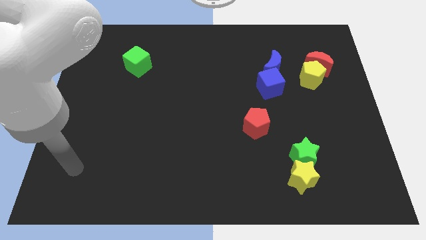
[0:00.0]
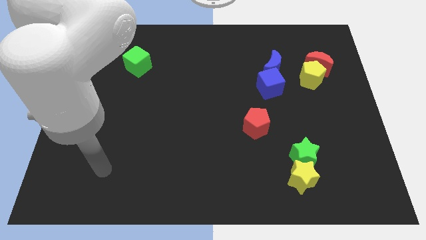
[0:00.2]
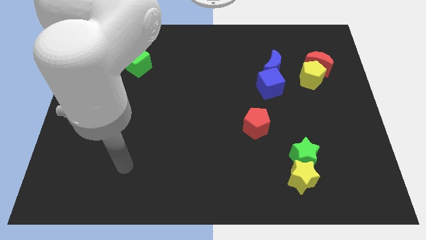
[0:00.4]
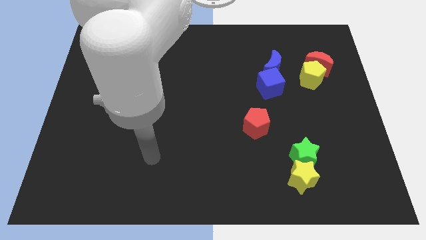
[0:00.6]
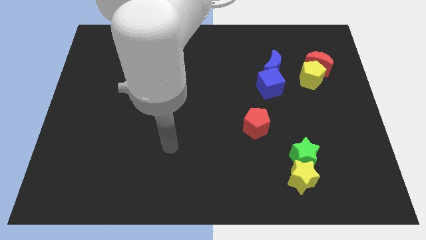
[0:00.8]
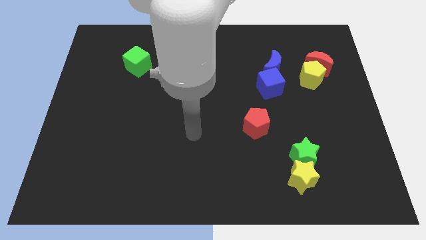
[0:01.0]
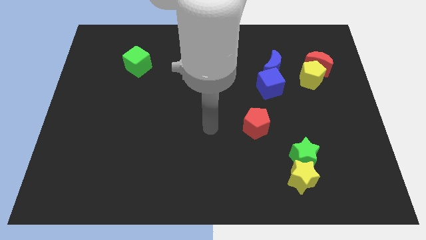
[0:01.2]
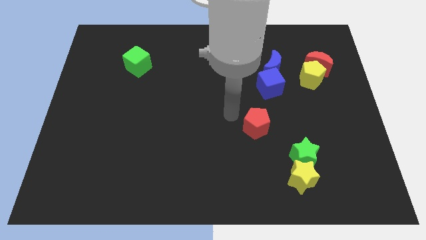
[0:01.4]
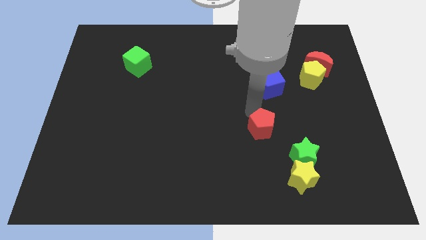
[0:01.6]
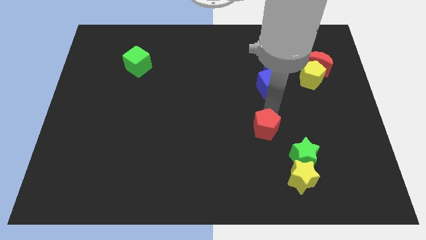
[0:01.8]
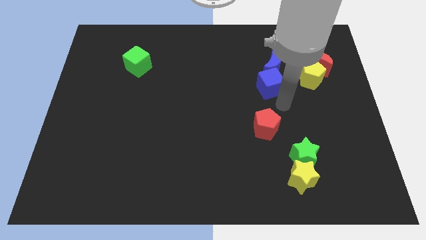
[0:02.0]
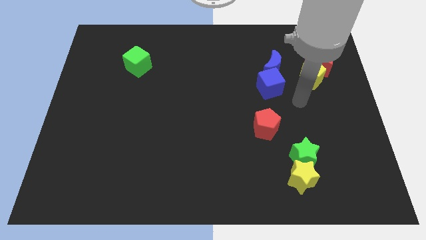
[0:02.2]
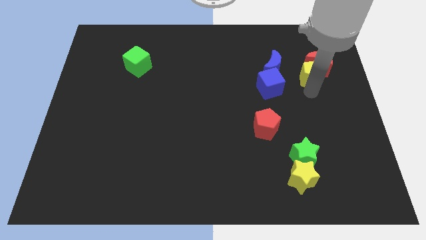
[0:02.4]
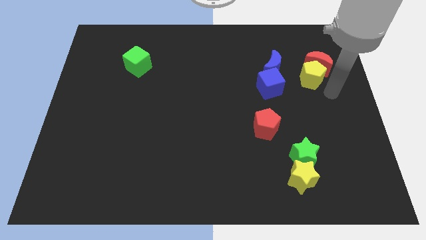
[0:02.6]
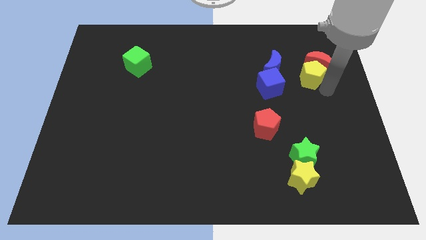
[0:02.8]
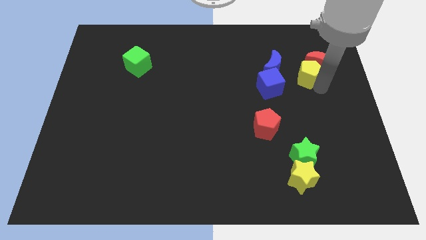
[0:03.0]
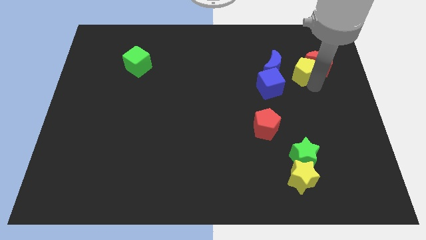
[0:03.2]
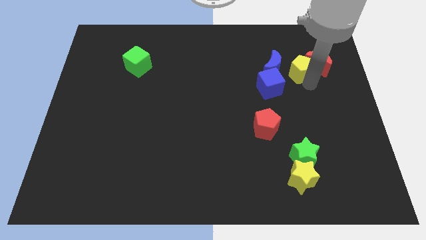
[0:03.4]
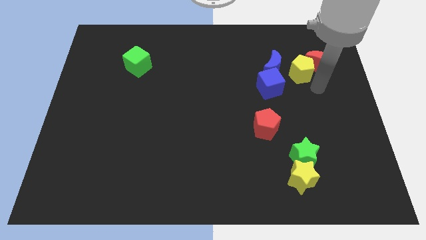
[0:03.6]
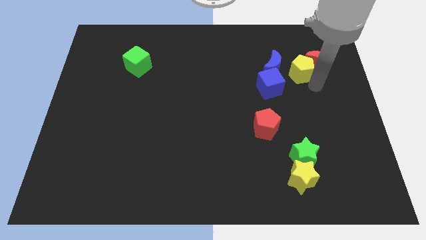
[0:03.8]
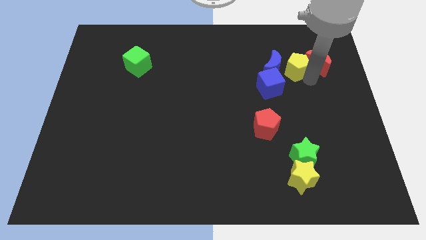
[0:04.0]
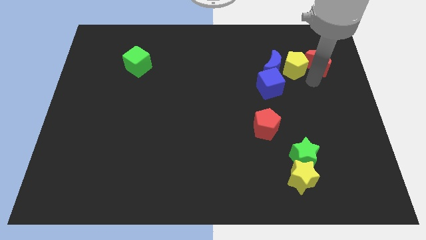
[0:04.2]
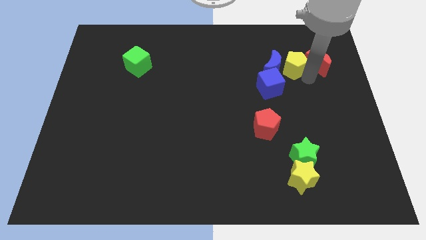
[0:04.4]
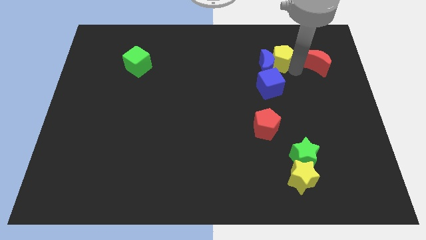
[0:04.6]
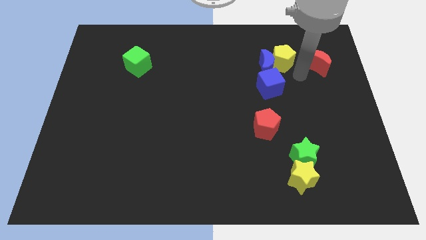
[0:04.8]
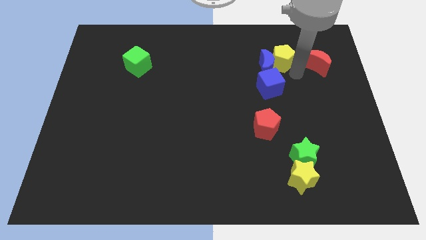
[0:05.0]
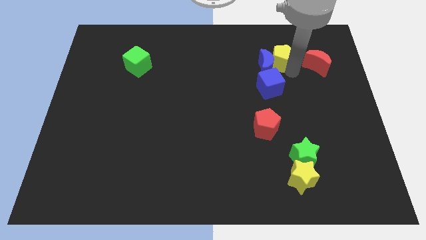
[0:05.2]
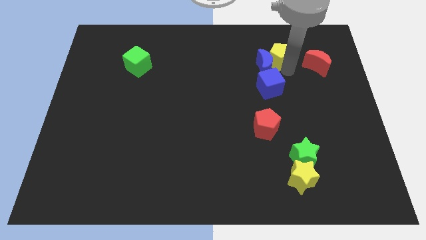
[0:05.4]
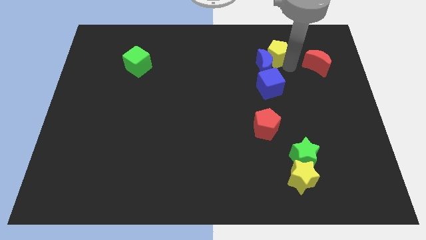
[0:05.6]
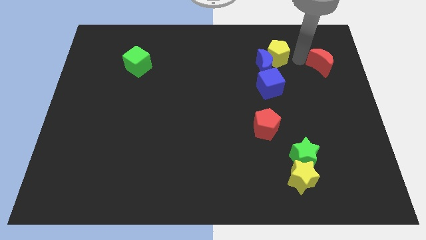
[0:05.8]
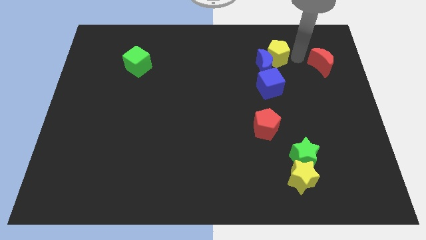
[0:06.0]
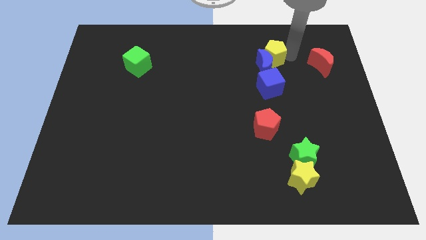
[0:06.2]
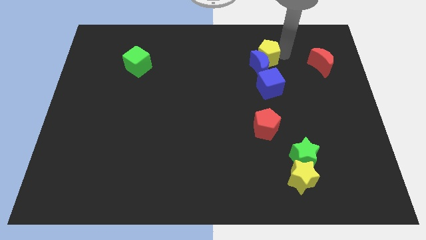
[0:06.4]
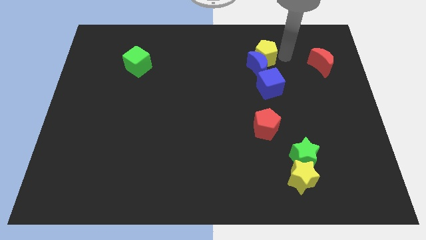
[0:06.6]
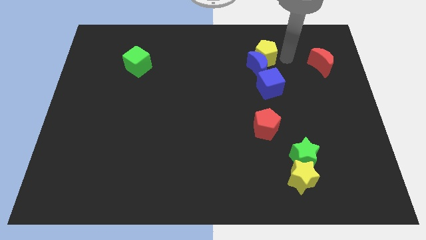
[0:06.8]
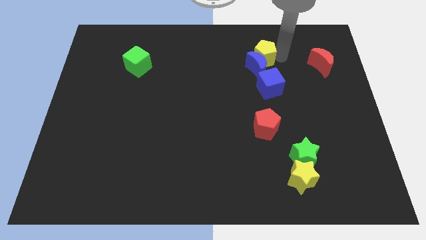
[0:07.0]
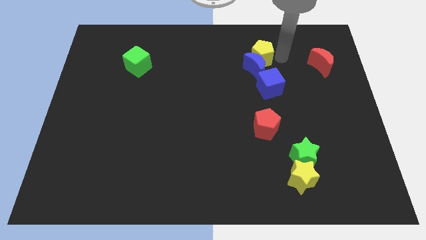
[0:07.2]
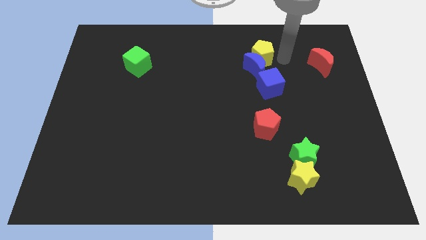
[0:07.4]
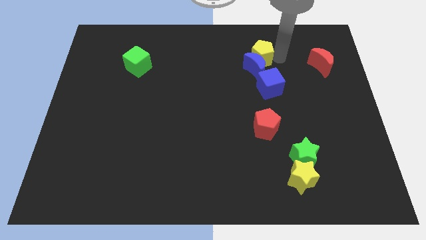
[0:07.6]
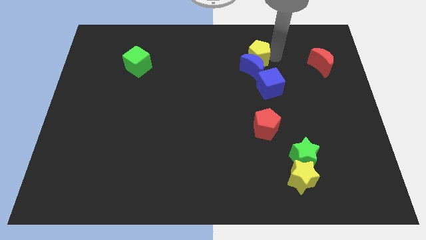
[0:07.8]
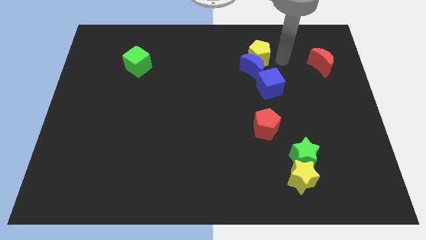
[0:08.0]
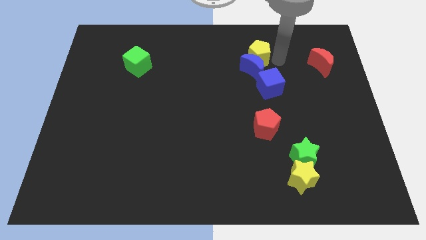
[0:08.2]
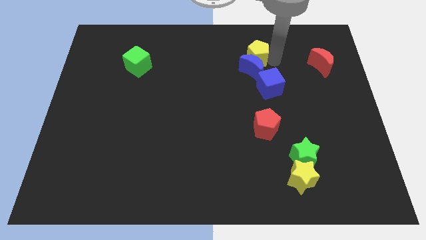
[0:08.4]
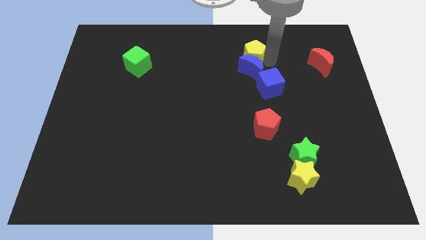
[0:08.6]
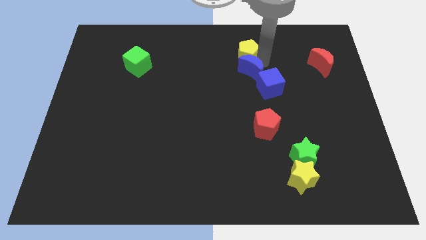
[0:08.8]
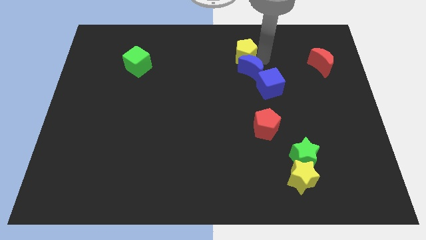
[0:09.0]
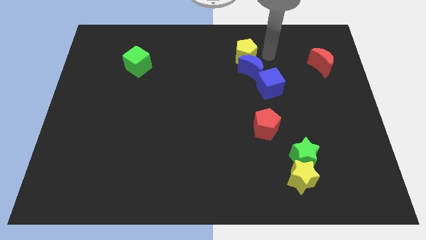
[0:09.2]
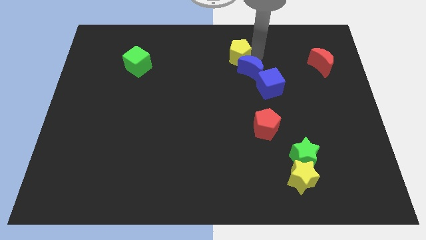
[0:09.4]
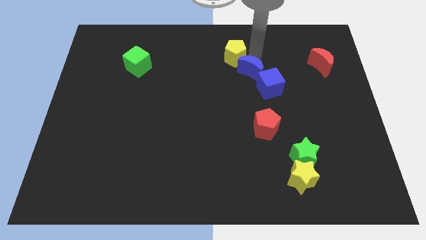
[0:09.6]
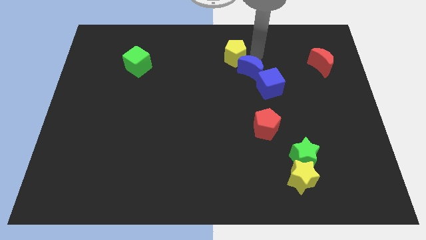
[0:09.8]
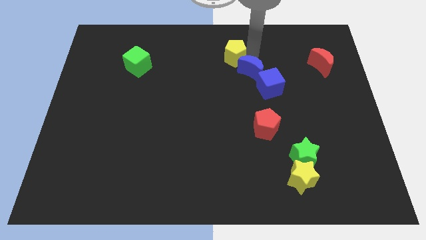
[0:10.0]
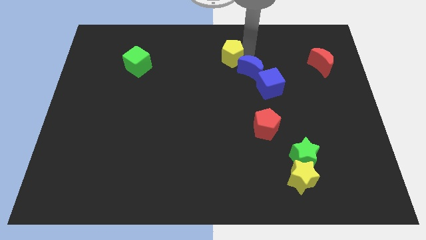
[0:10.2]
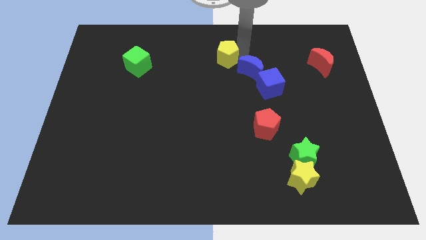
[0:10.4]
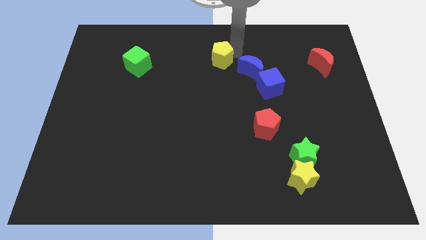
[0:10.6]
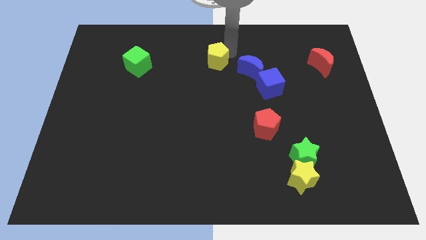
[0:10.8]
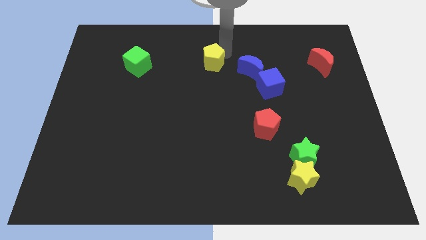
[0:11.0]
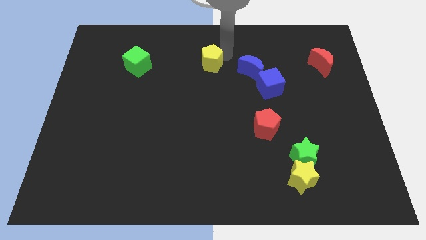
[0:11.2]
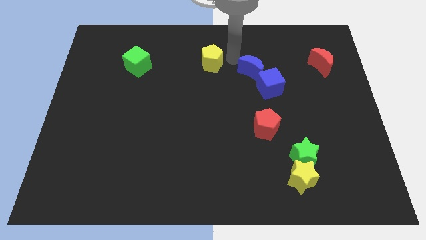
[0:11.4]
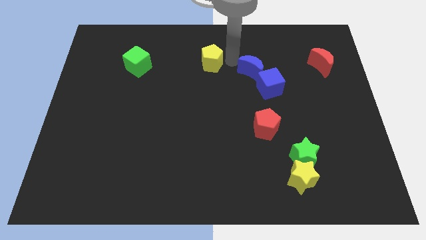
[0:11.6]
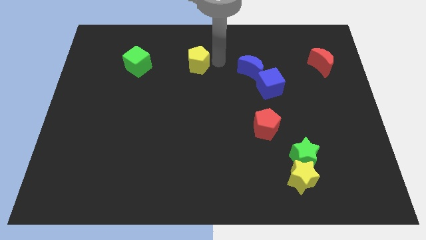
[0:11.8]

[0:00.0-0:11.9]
move the yellow pentagon just right of the green cube

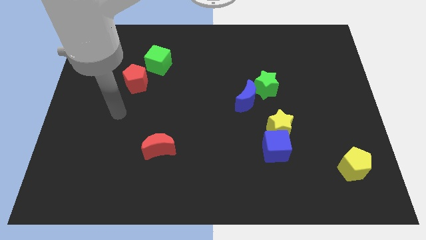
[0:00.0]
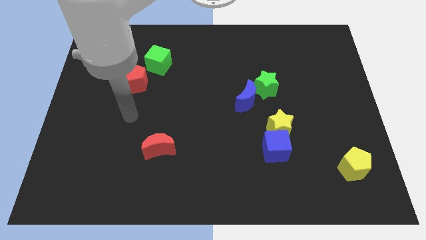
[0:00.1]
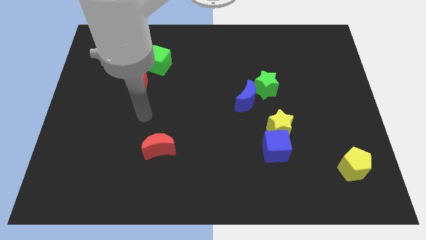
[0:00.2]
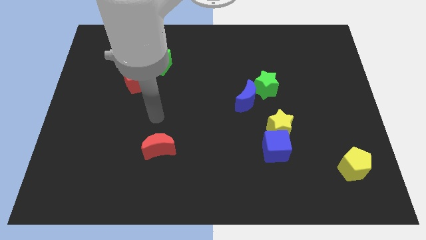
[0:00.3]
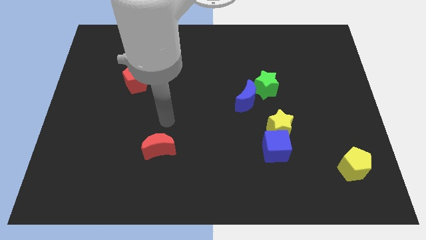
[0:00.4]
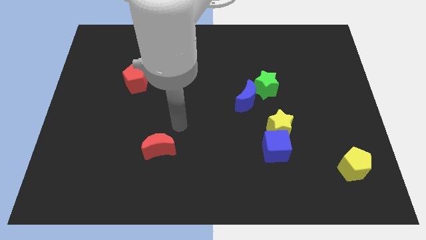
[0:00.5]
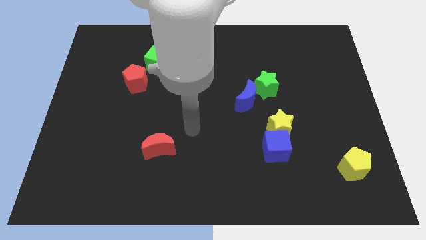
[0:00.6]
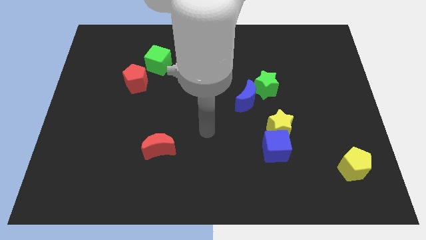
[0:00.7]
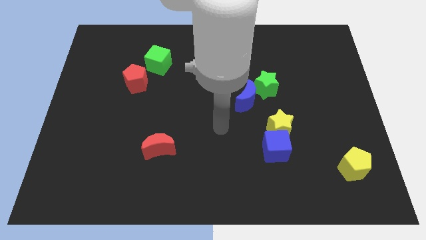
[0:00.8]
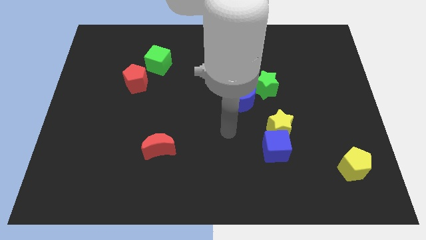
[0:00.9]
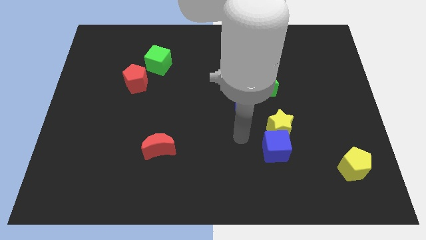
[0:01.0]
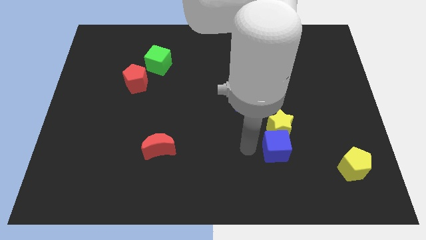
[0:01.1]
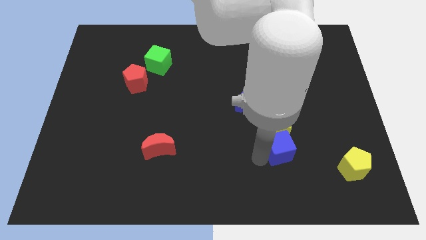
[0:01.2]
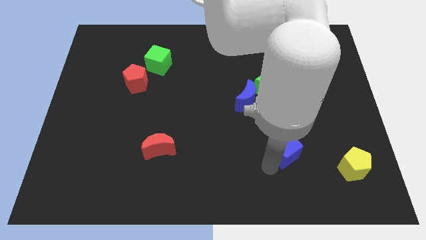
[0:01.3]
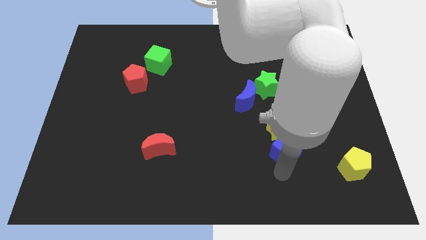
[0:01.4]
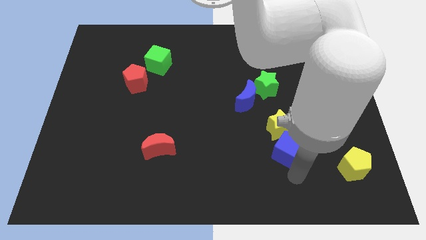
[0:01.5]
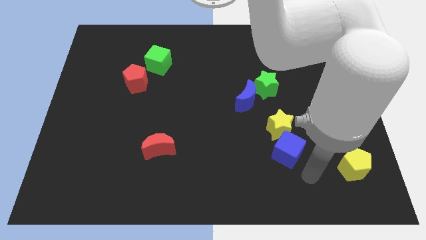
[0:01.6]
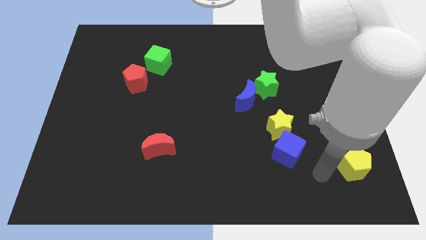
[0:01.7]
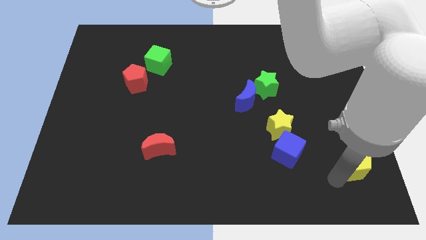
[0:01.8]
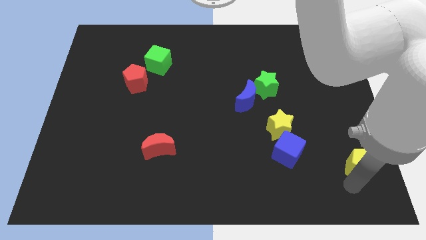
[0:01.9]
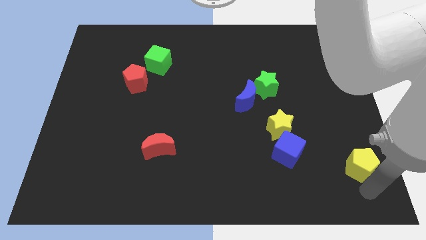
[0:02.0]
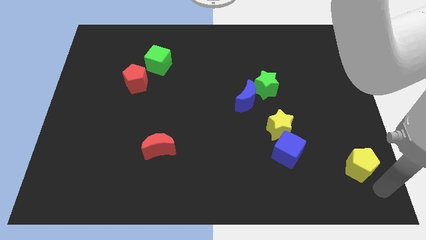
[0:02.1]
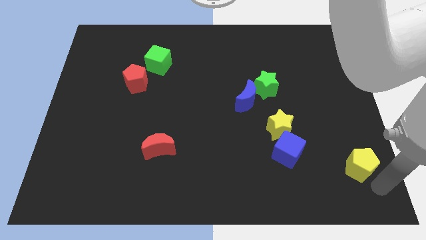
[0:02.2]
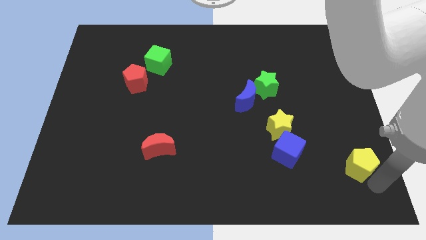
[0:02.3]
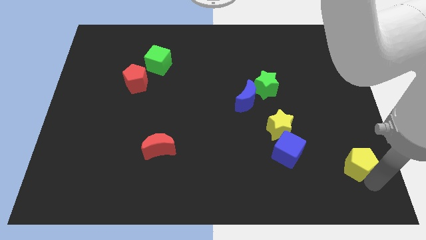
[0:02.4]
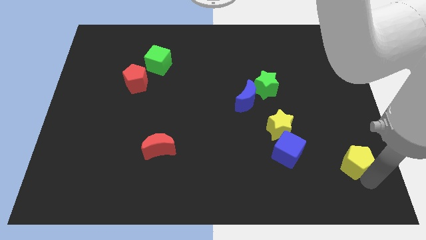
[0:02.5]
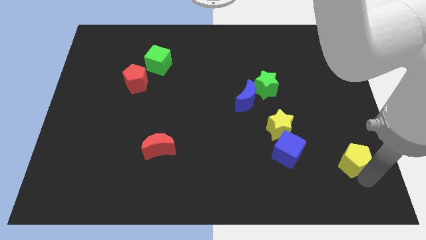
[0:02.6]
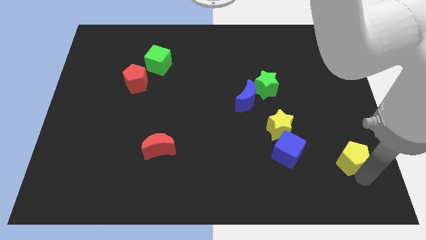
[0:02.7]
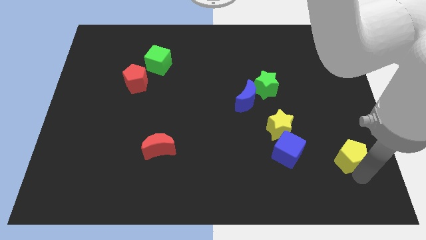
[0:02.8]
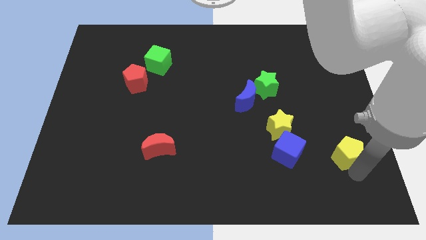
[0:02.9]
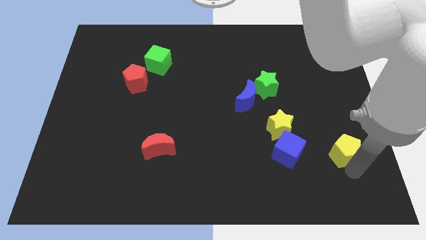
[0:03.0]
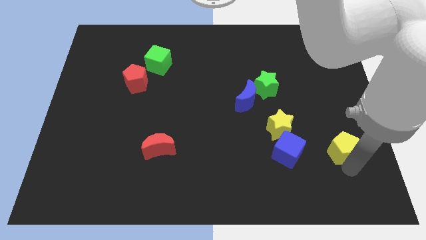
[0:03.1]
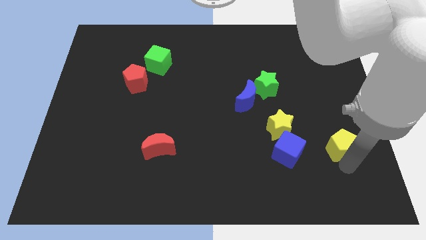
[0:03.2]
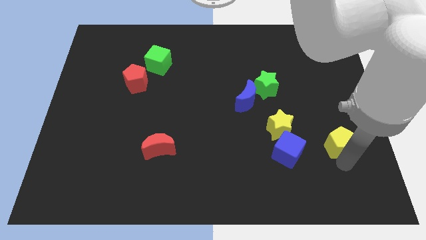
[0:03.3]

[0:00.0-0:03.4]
push the yellow pentagon right of the yellow star
